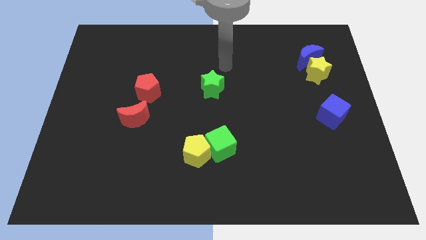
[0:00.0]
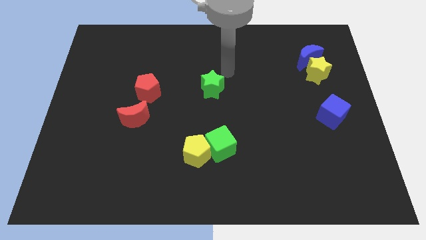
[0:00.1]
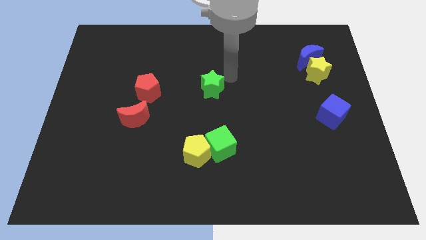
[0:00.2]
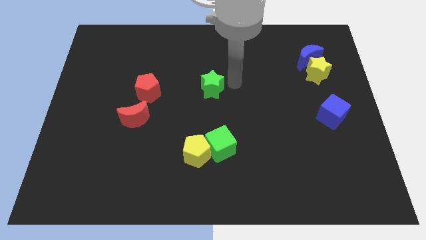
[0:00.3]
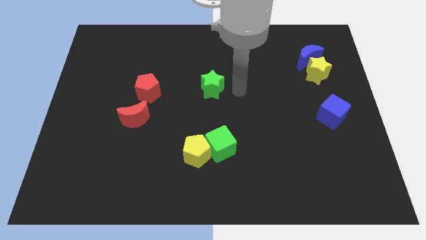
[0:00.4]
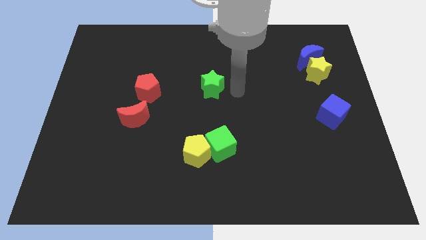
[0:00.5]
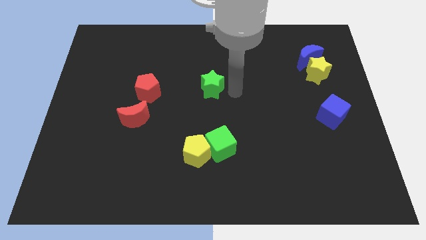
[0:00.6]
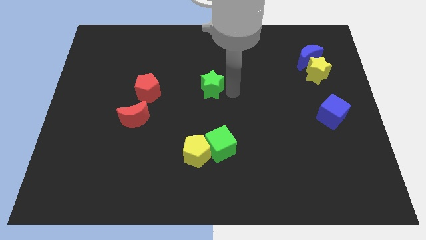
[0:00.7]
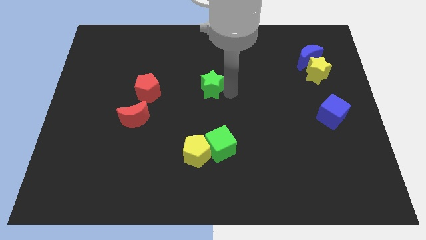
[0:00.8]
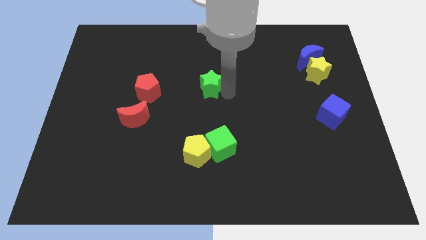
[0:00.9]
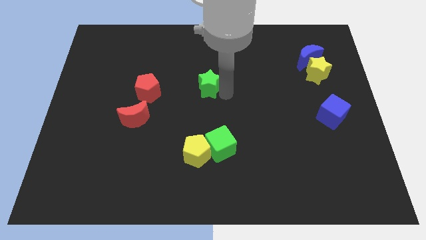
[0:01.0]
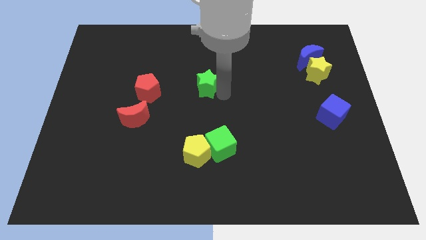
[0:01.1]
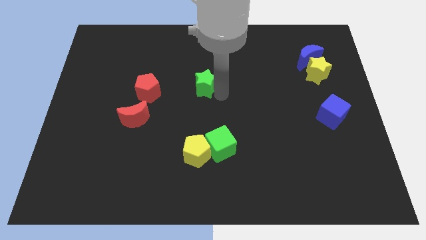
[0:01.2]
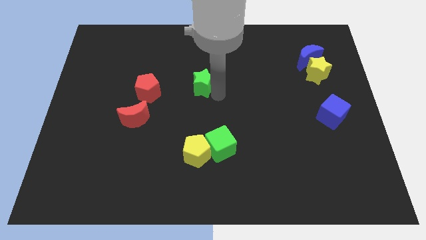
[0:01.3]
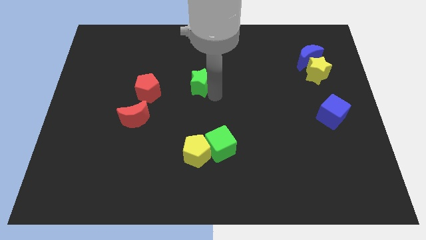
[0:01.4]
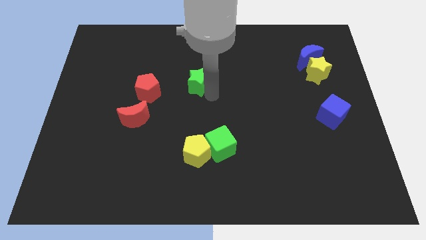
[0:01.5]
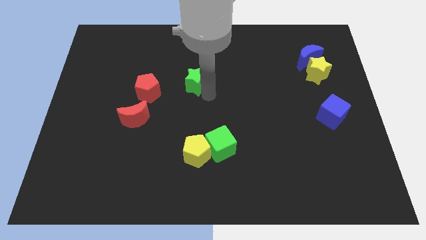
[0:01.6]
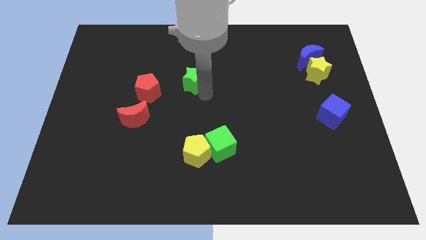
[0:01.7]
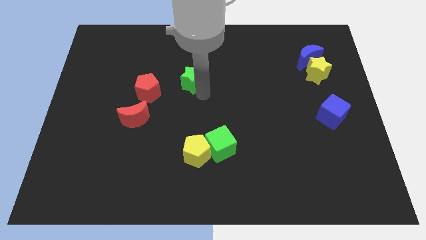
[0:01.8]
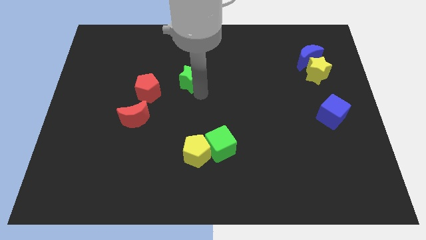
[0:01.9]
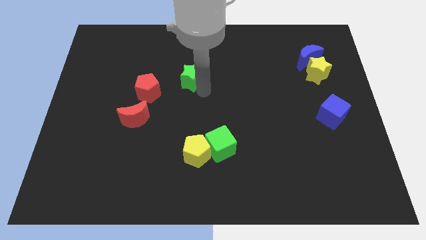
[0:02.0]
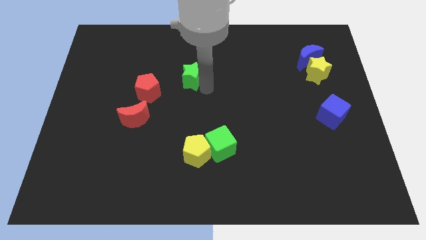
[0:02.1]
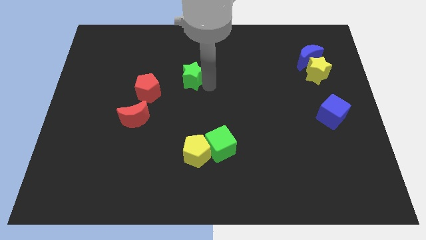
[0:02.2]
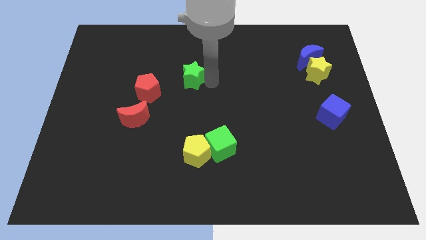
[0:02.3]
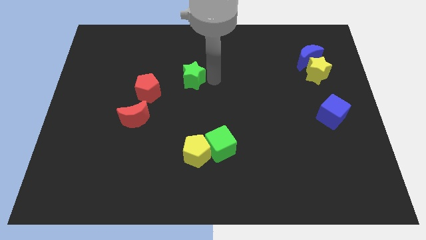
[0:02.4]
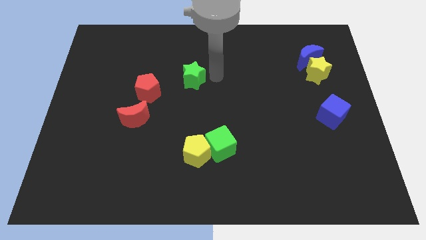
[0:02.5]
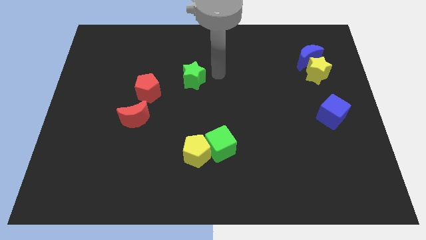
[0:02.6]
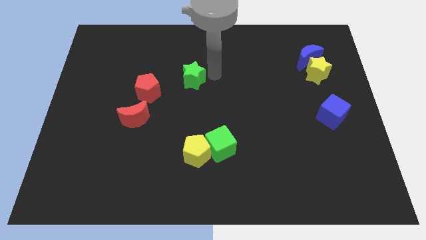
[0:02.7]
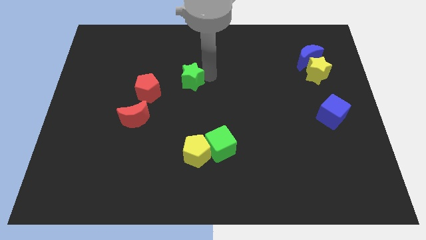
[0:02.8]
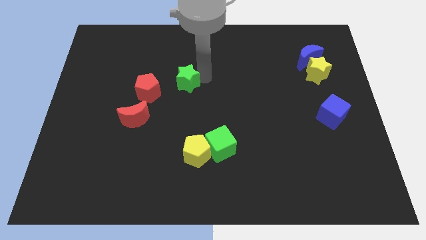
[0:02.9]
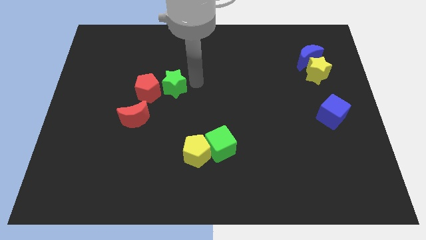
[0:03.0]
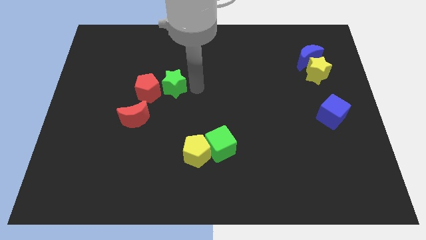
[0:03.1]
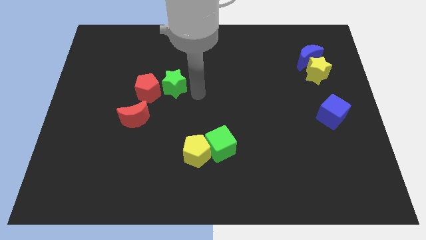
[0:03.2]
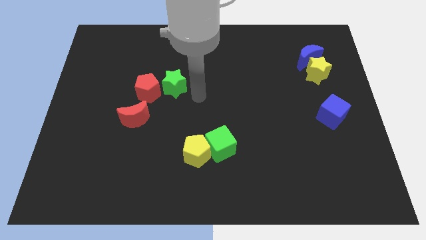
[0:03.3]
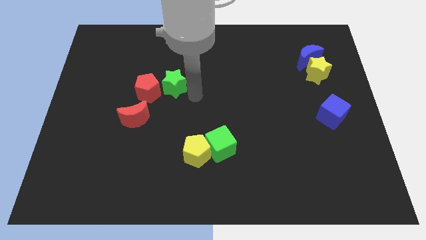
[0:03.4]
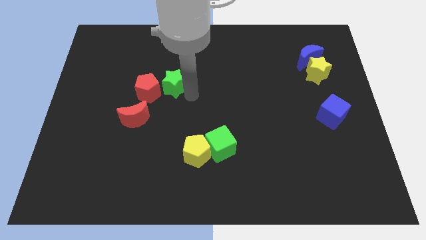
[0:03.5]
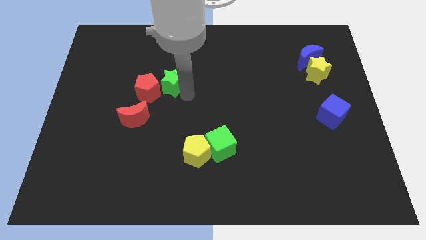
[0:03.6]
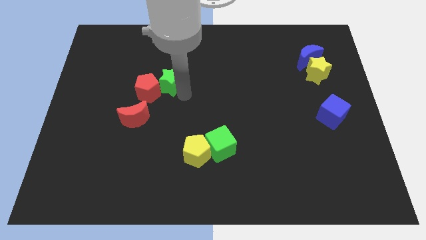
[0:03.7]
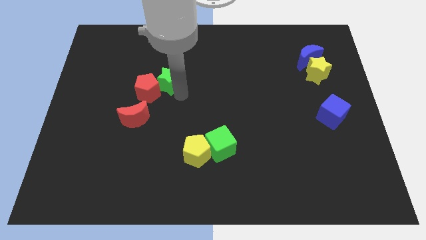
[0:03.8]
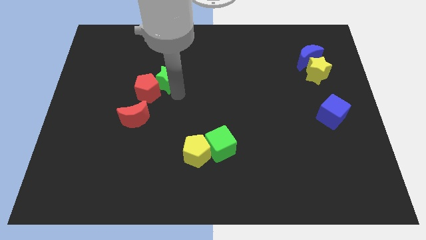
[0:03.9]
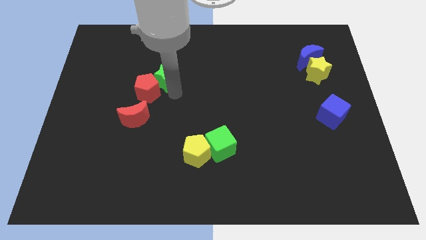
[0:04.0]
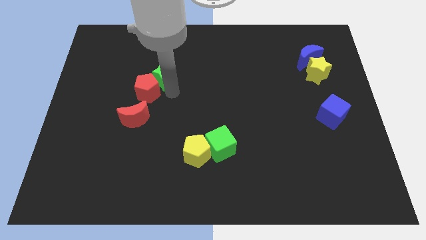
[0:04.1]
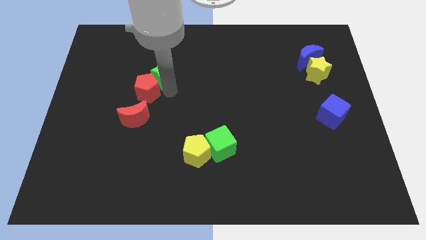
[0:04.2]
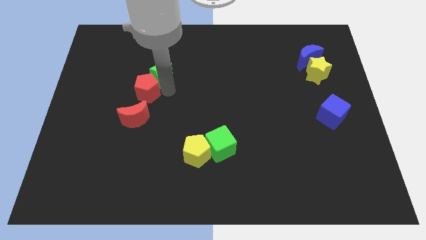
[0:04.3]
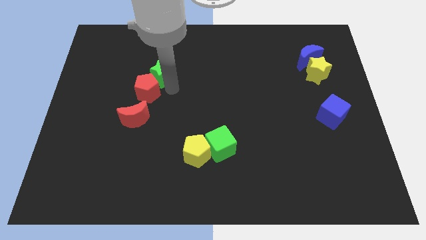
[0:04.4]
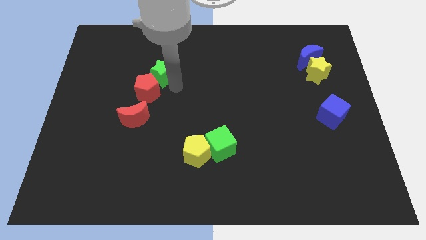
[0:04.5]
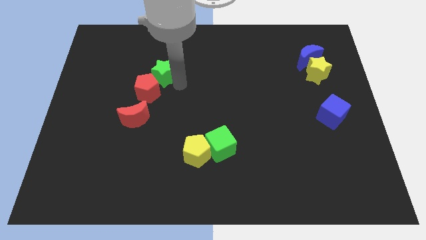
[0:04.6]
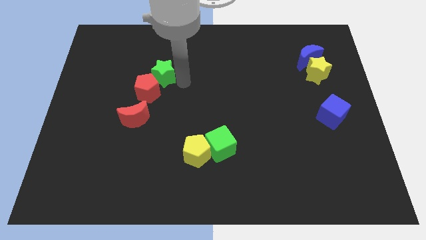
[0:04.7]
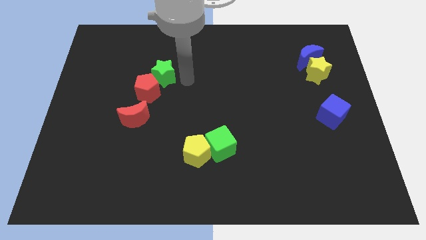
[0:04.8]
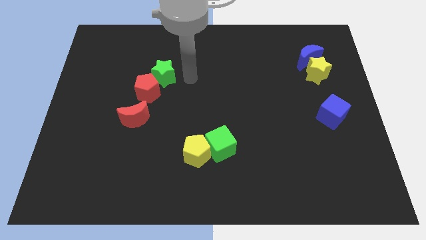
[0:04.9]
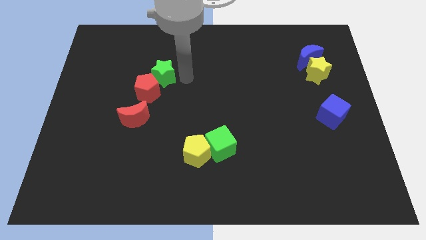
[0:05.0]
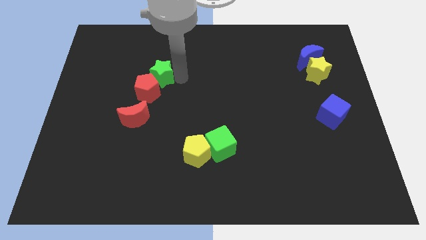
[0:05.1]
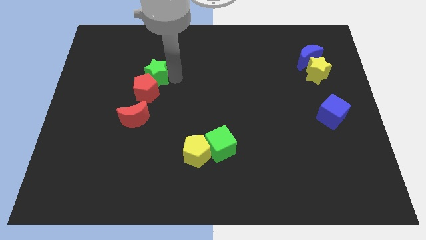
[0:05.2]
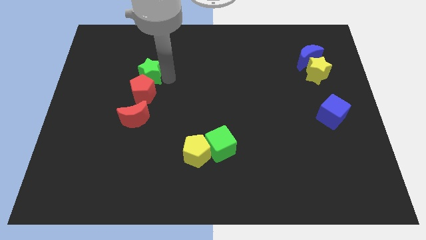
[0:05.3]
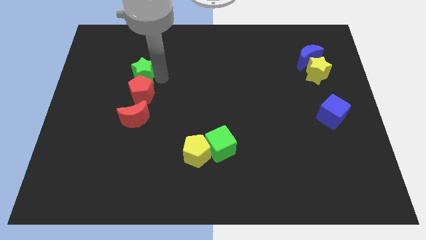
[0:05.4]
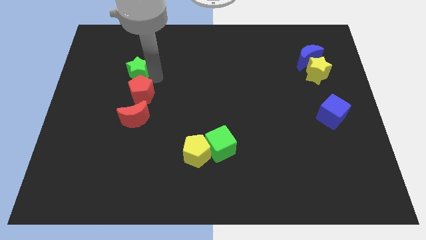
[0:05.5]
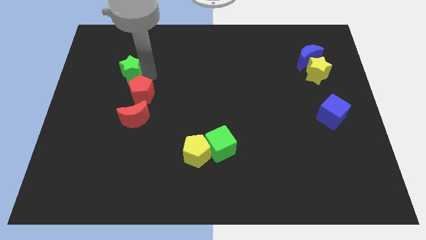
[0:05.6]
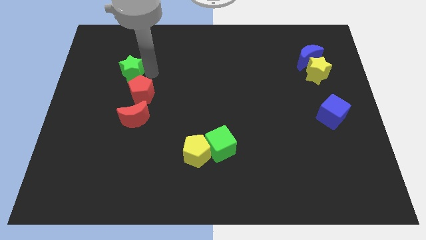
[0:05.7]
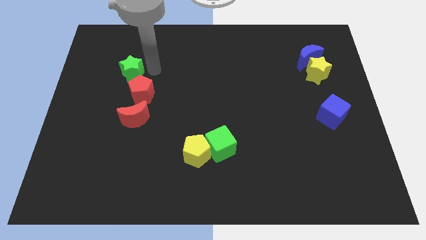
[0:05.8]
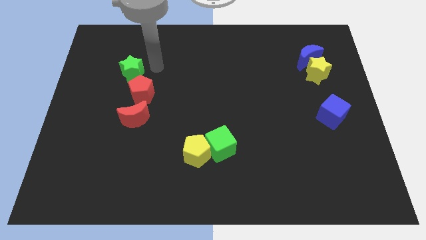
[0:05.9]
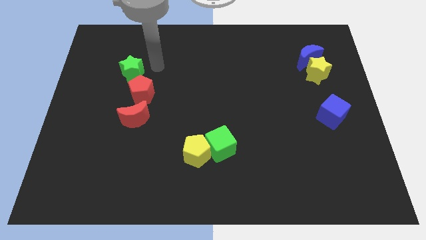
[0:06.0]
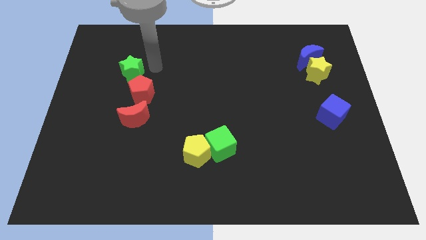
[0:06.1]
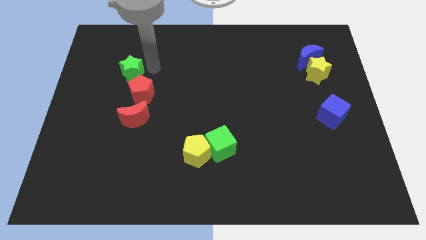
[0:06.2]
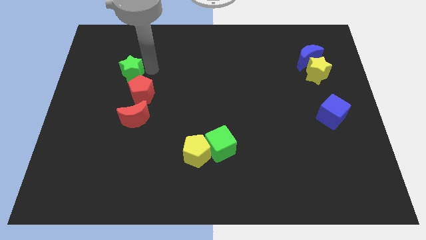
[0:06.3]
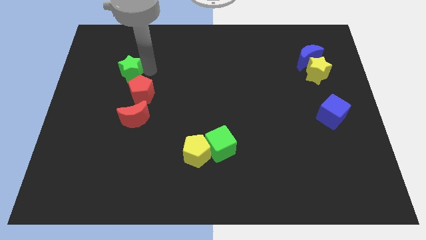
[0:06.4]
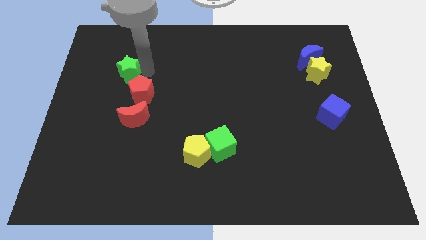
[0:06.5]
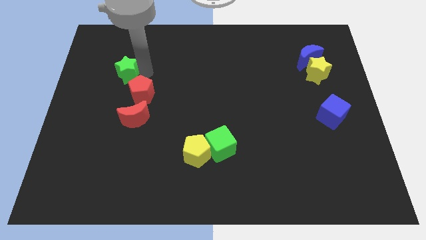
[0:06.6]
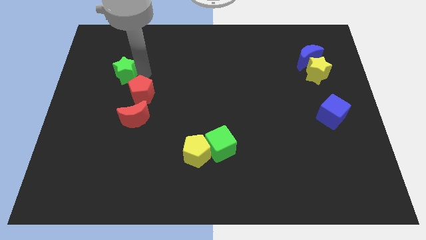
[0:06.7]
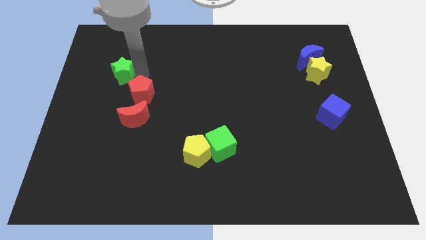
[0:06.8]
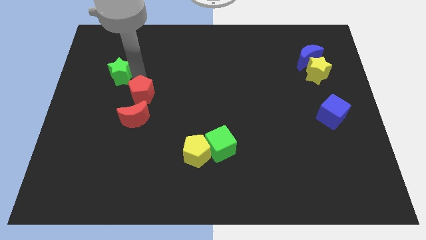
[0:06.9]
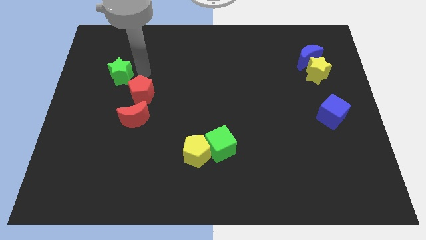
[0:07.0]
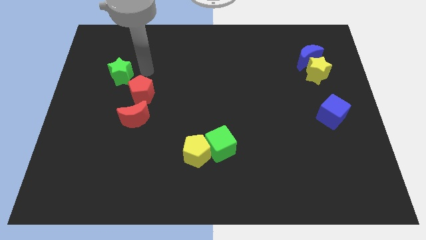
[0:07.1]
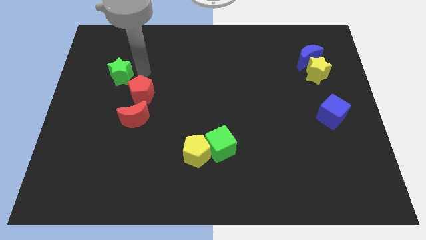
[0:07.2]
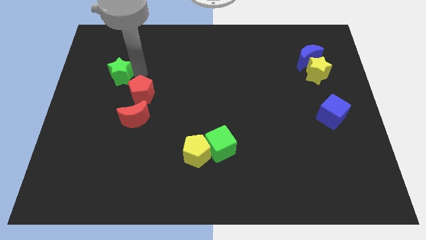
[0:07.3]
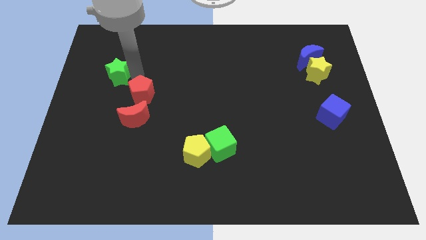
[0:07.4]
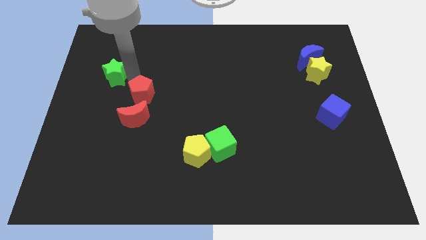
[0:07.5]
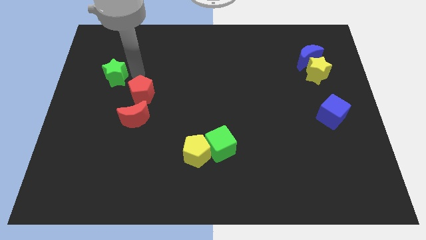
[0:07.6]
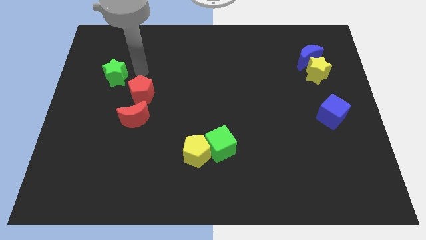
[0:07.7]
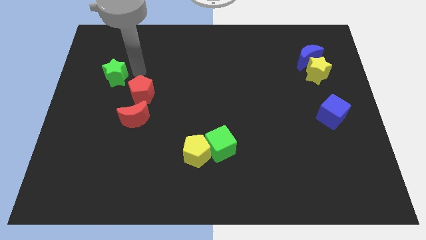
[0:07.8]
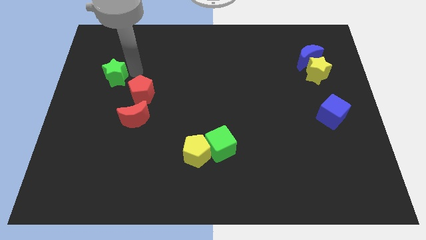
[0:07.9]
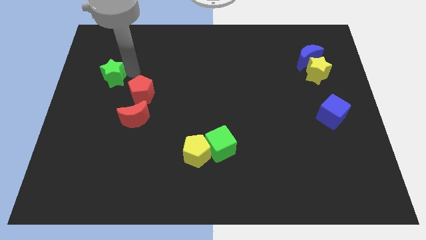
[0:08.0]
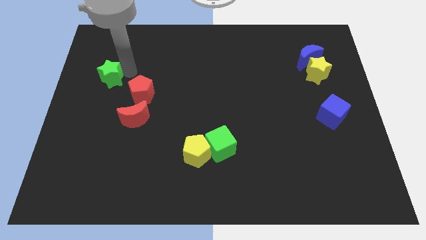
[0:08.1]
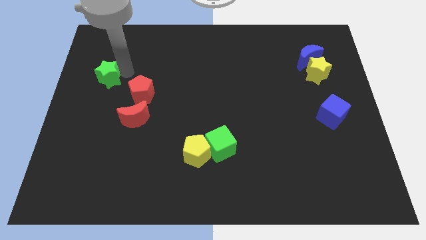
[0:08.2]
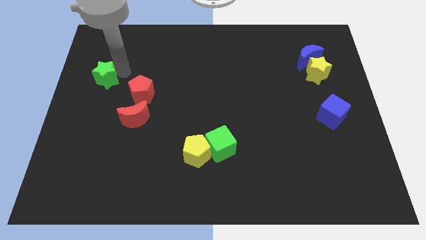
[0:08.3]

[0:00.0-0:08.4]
push the green star to the left side
